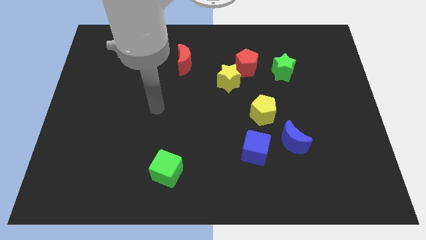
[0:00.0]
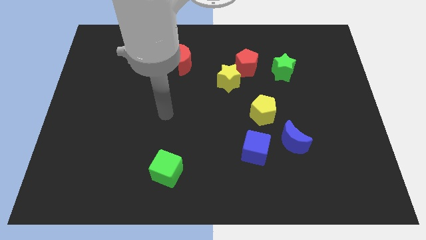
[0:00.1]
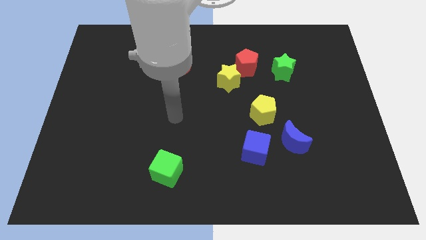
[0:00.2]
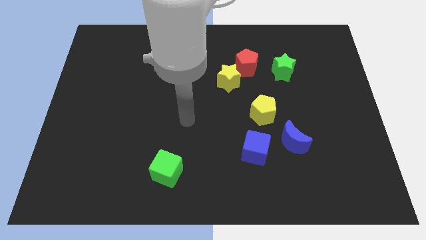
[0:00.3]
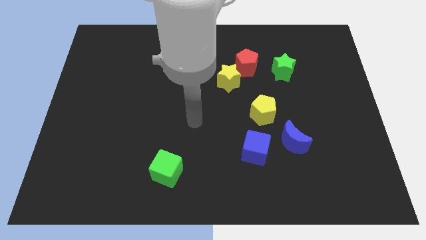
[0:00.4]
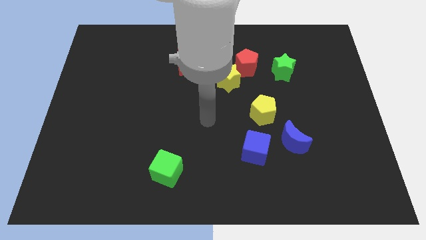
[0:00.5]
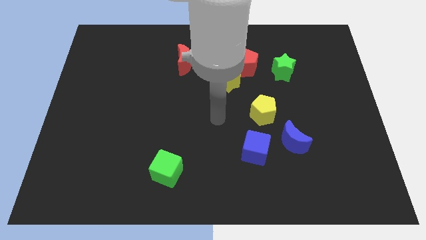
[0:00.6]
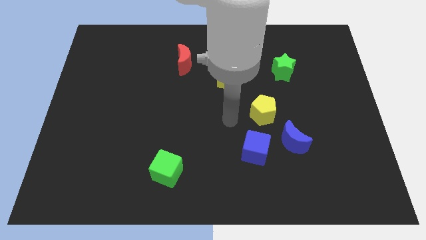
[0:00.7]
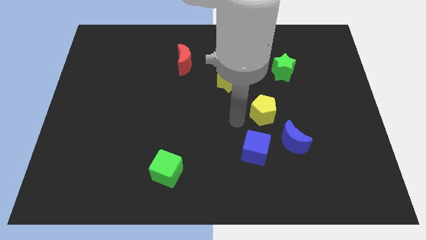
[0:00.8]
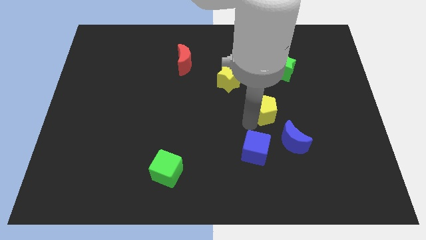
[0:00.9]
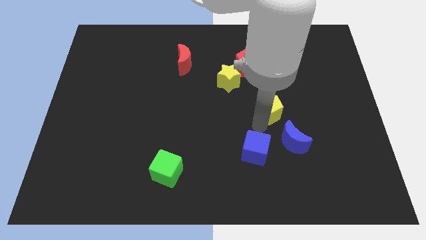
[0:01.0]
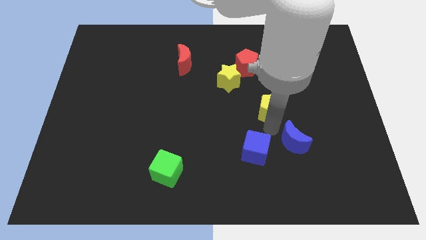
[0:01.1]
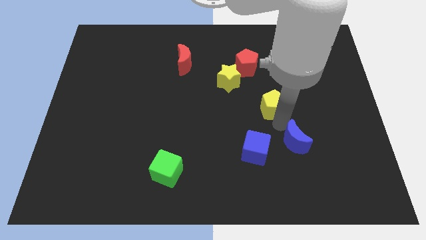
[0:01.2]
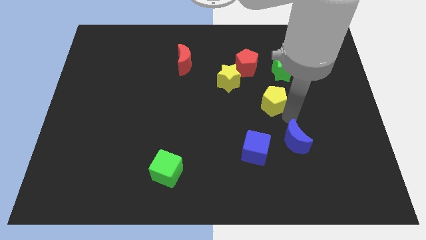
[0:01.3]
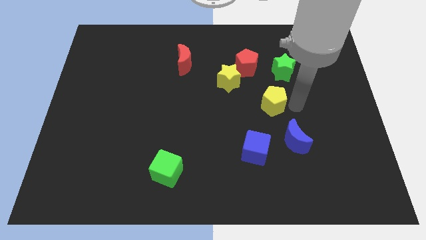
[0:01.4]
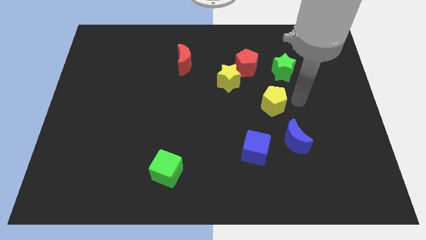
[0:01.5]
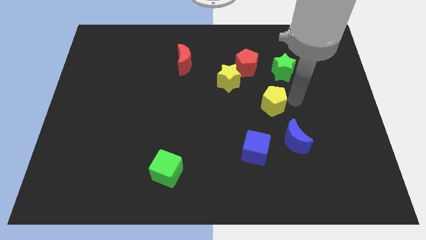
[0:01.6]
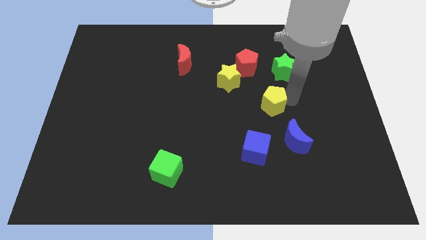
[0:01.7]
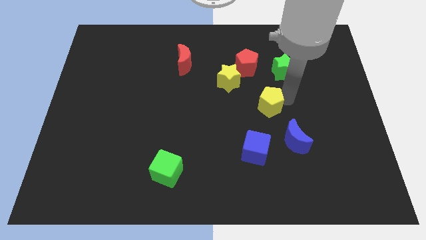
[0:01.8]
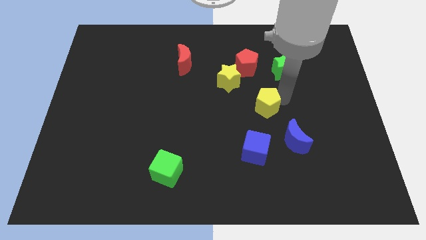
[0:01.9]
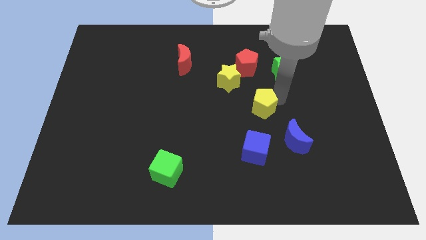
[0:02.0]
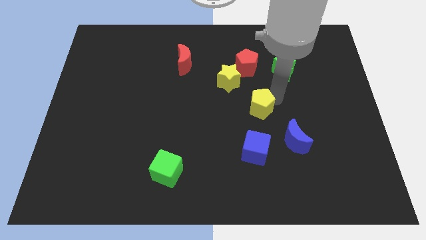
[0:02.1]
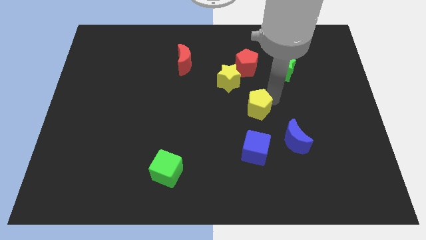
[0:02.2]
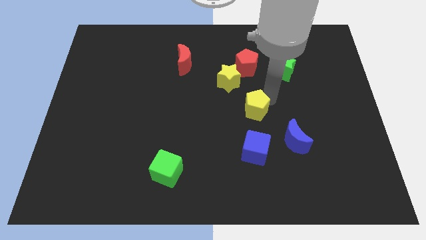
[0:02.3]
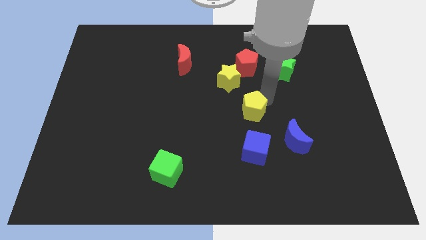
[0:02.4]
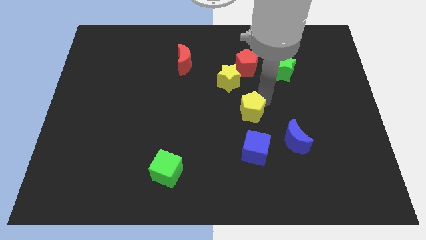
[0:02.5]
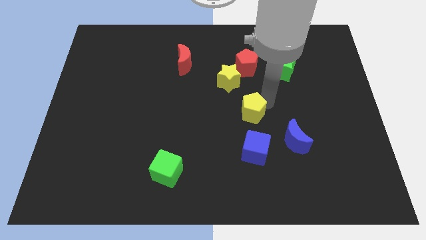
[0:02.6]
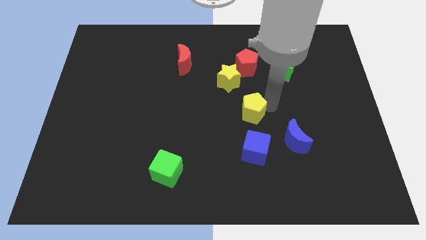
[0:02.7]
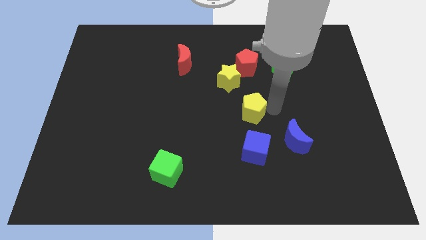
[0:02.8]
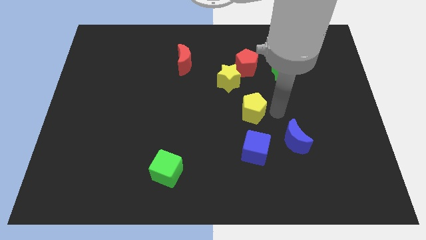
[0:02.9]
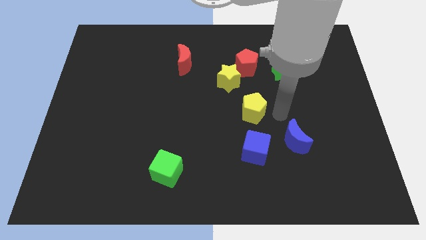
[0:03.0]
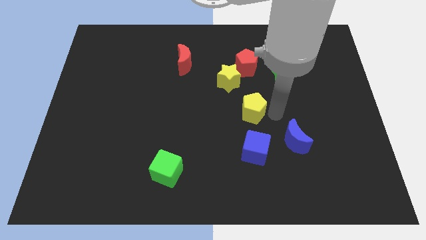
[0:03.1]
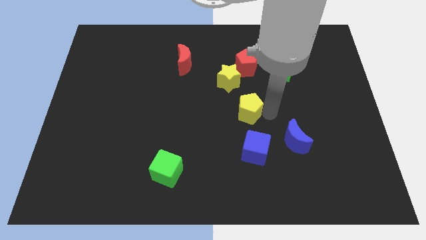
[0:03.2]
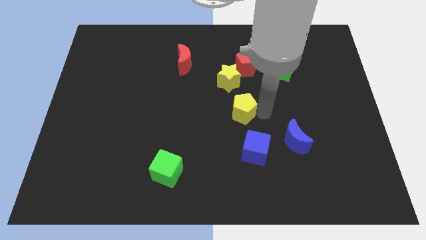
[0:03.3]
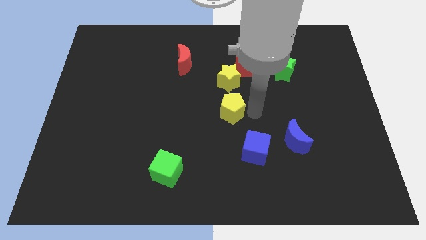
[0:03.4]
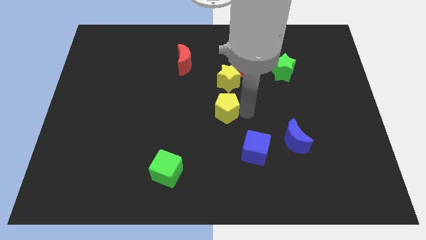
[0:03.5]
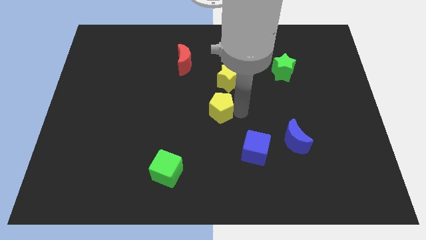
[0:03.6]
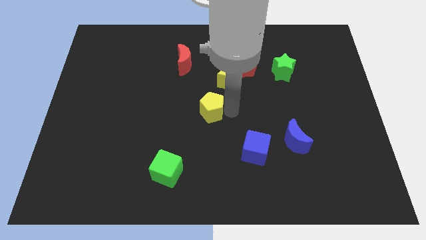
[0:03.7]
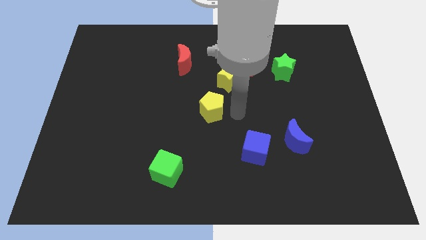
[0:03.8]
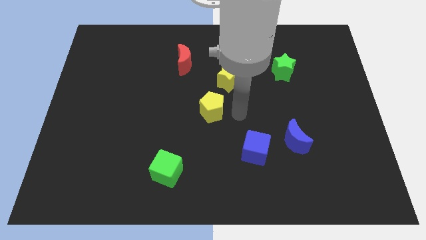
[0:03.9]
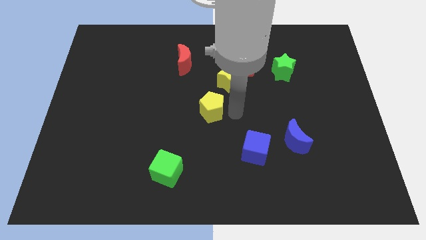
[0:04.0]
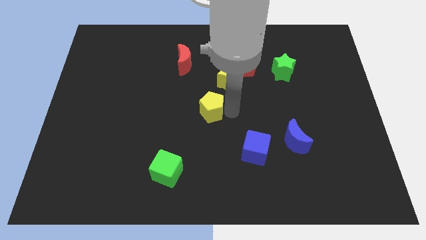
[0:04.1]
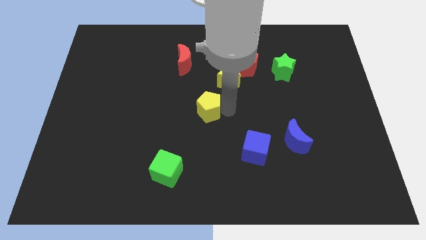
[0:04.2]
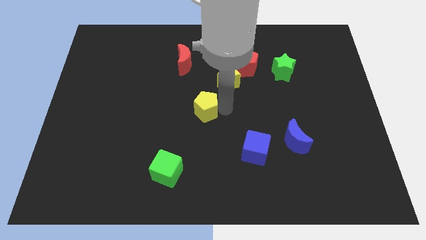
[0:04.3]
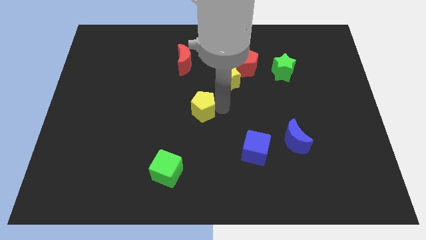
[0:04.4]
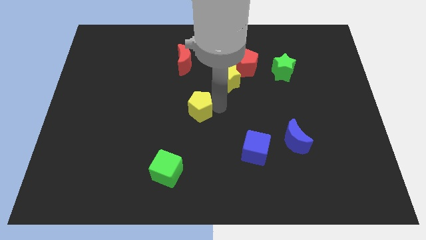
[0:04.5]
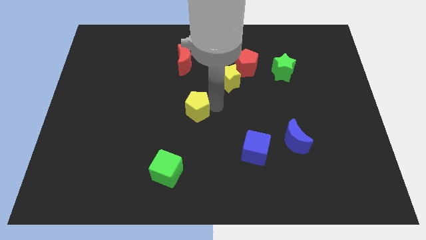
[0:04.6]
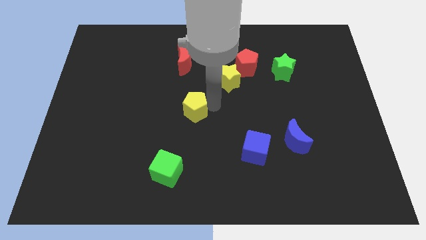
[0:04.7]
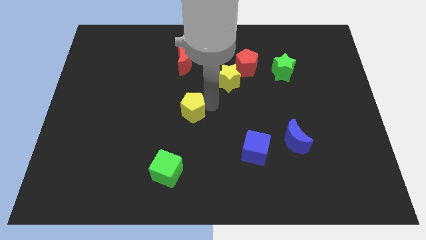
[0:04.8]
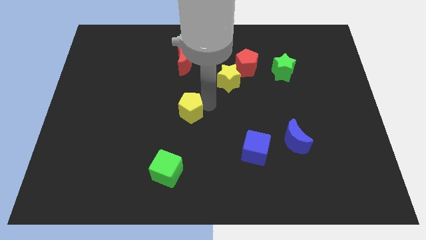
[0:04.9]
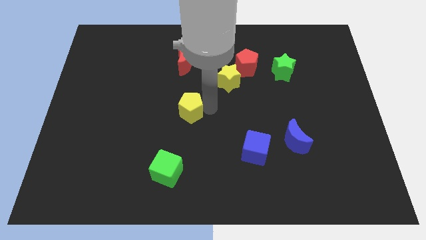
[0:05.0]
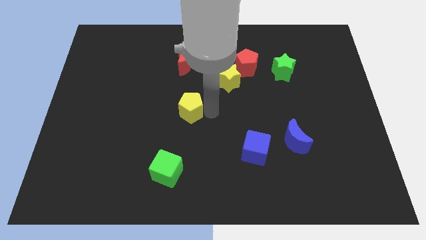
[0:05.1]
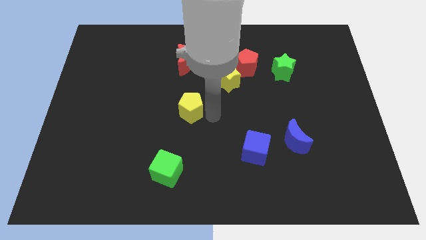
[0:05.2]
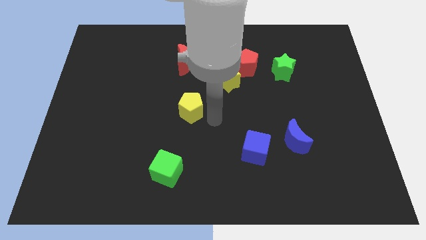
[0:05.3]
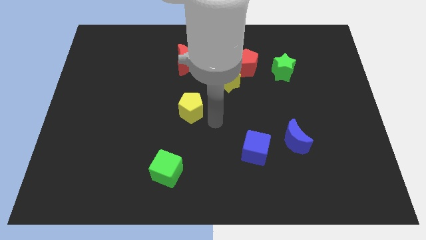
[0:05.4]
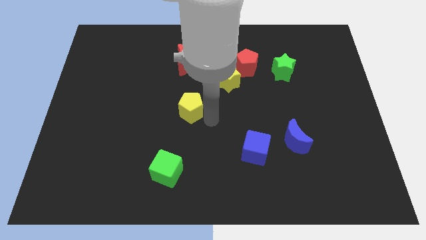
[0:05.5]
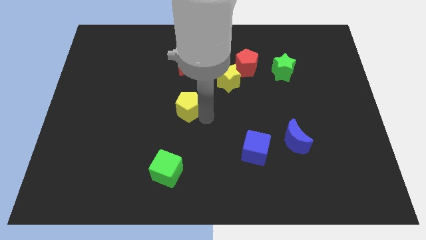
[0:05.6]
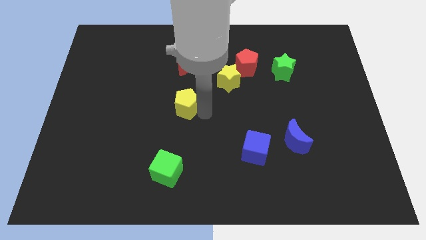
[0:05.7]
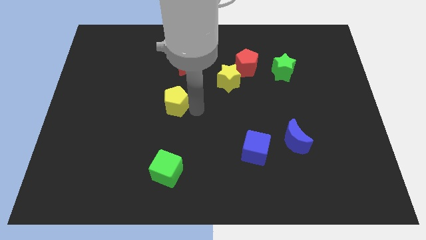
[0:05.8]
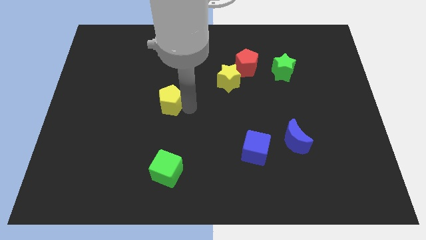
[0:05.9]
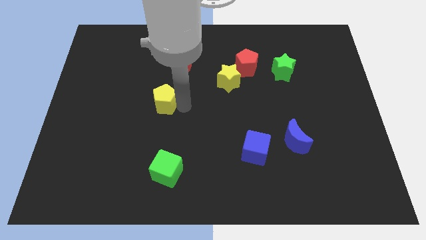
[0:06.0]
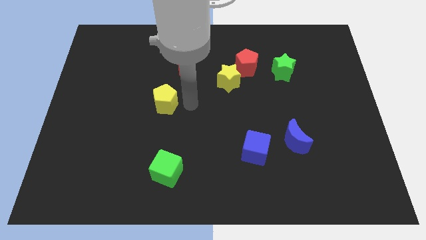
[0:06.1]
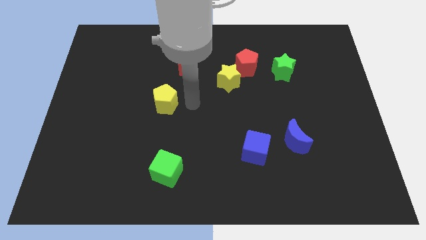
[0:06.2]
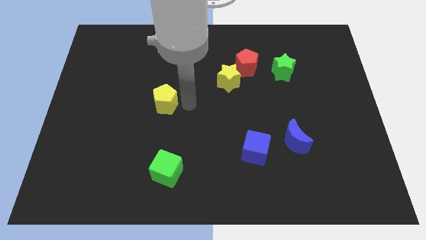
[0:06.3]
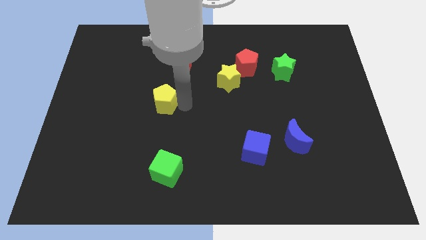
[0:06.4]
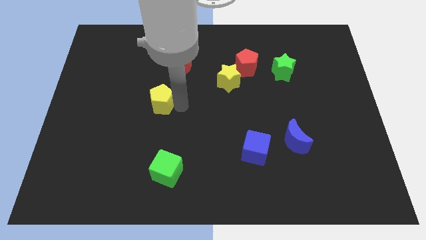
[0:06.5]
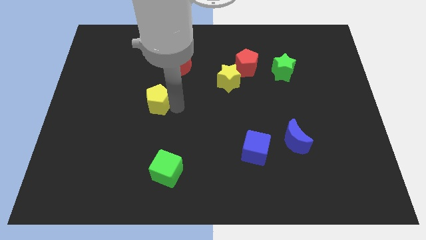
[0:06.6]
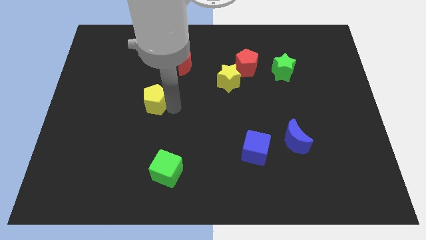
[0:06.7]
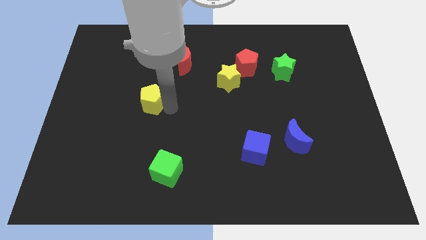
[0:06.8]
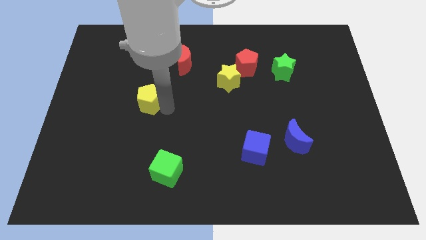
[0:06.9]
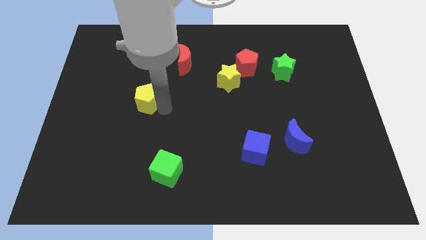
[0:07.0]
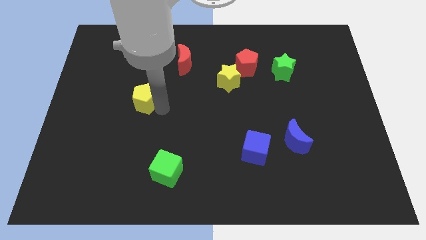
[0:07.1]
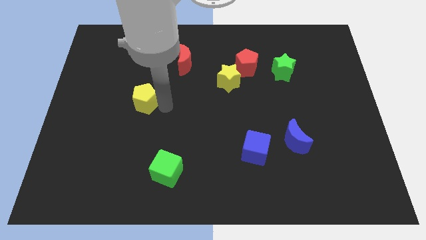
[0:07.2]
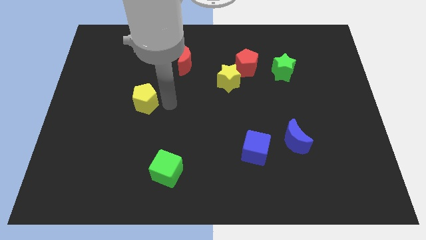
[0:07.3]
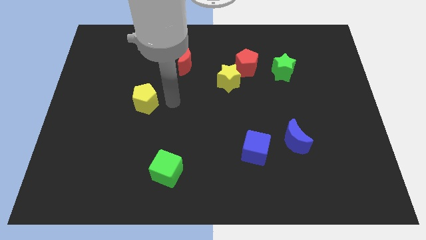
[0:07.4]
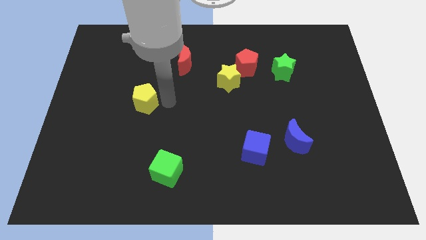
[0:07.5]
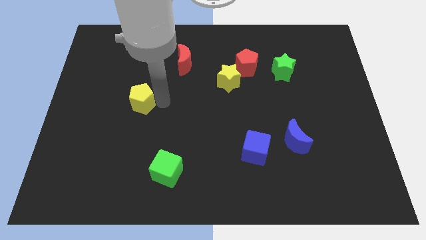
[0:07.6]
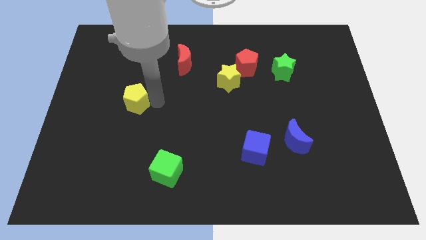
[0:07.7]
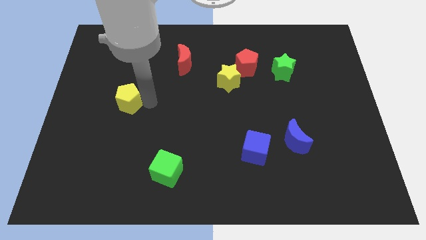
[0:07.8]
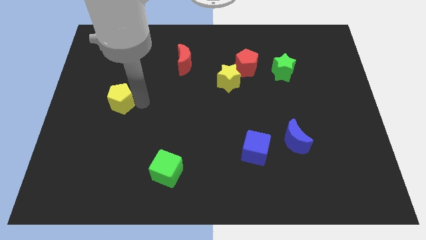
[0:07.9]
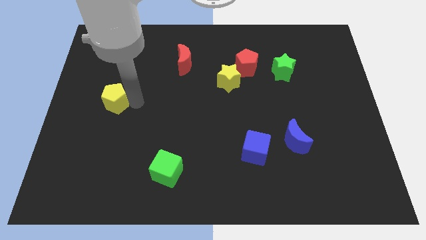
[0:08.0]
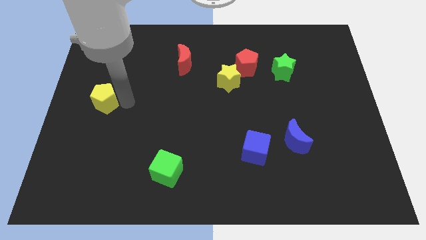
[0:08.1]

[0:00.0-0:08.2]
slide the yellow pentagon to the left side of the board
